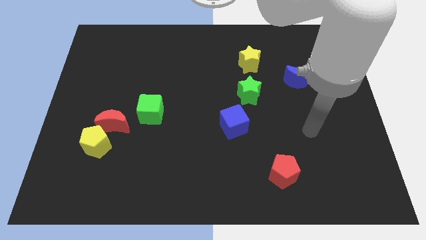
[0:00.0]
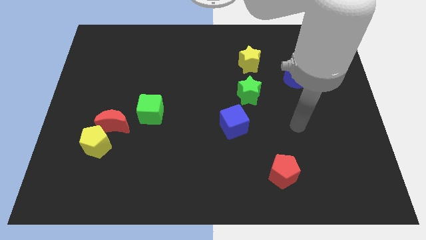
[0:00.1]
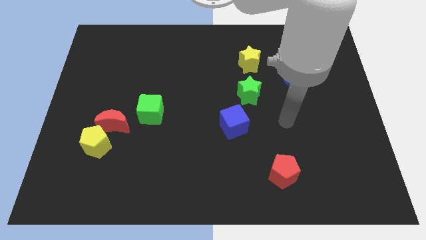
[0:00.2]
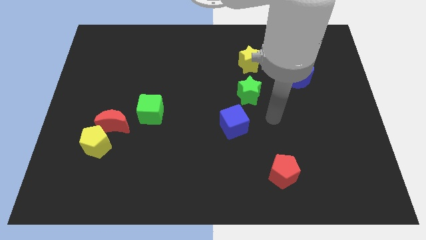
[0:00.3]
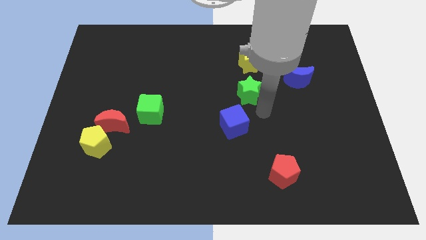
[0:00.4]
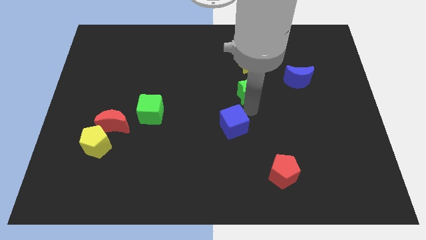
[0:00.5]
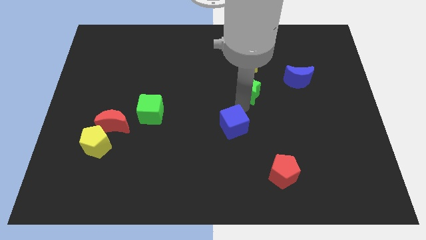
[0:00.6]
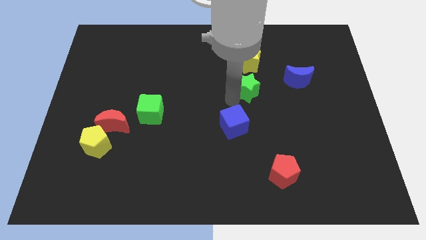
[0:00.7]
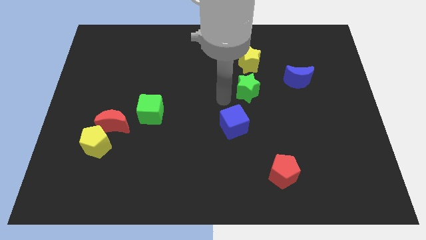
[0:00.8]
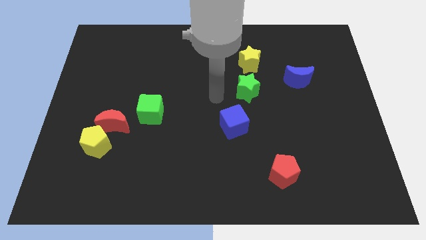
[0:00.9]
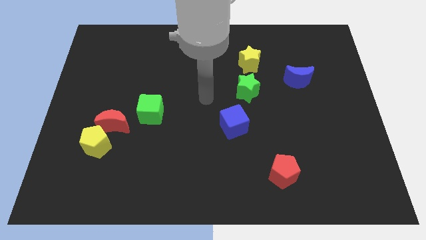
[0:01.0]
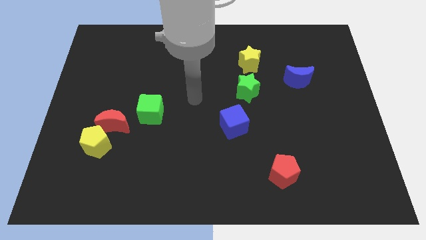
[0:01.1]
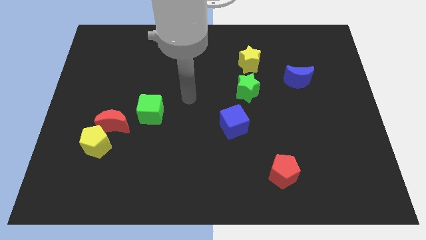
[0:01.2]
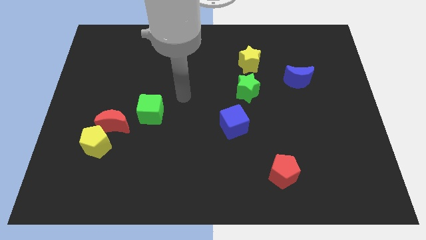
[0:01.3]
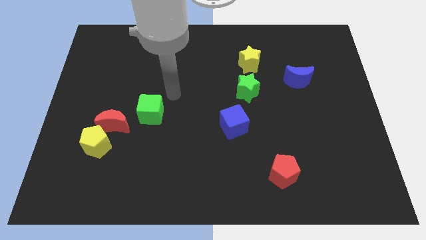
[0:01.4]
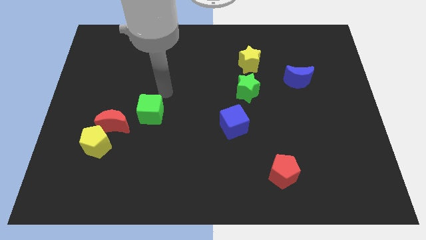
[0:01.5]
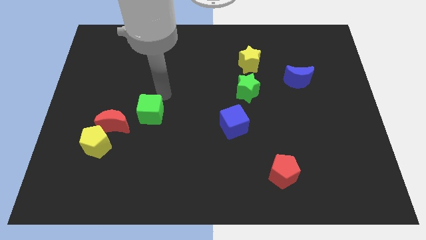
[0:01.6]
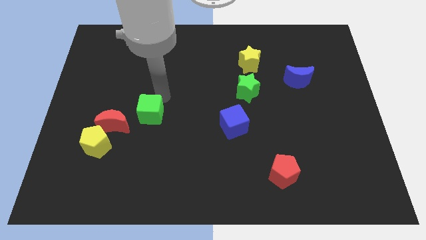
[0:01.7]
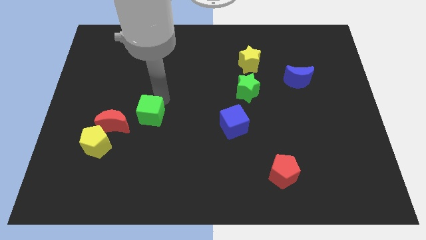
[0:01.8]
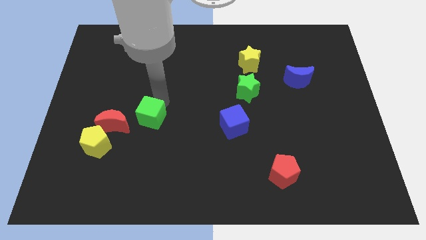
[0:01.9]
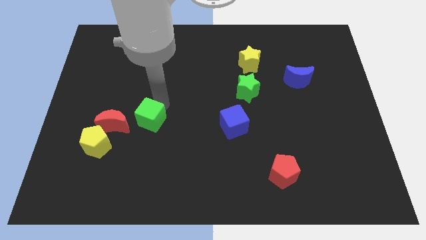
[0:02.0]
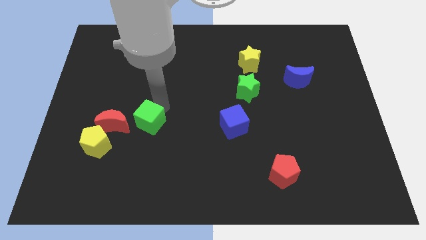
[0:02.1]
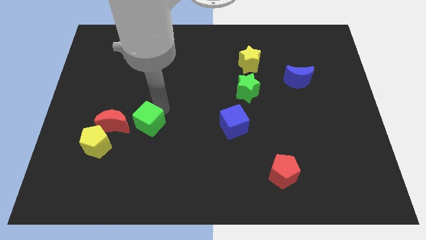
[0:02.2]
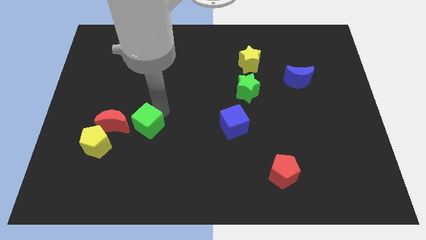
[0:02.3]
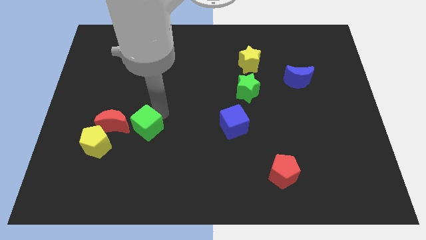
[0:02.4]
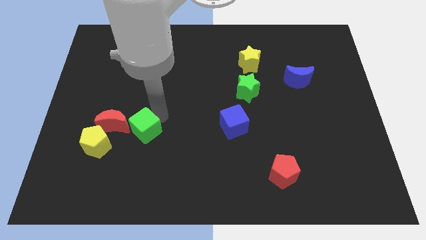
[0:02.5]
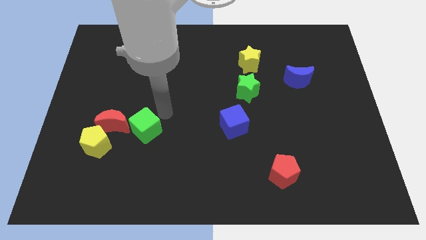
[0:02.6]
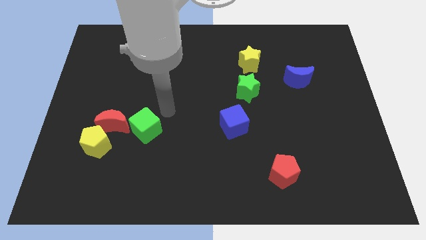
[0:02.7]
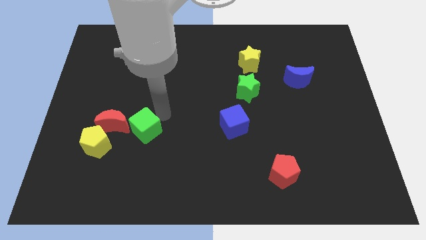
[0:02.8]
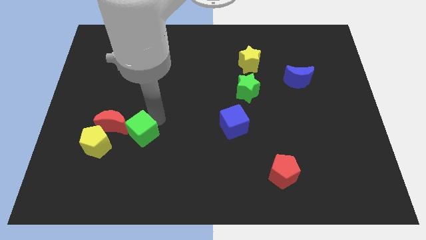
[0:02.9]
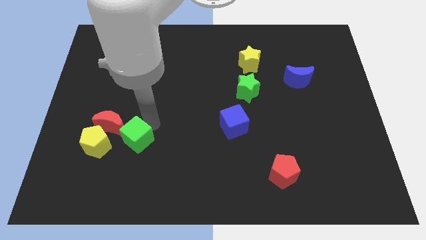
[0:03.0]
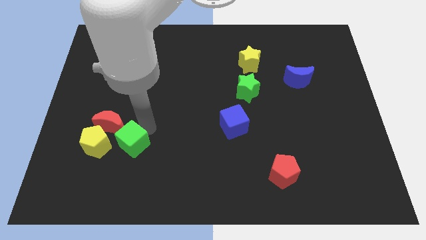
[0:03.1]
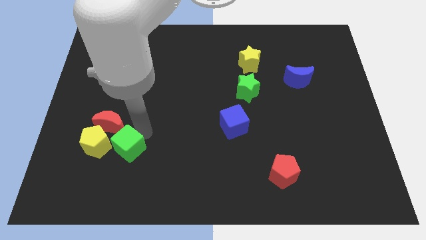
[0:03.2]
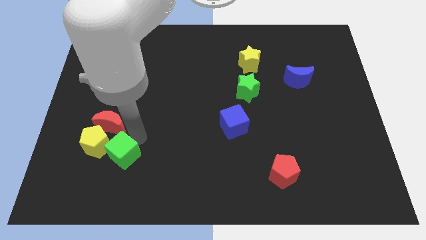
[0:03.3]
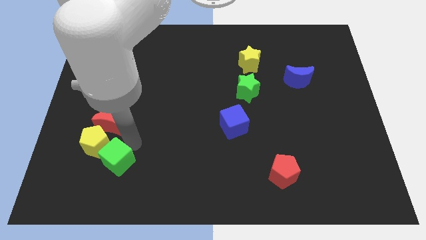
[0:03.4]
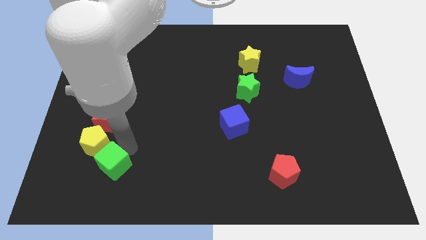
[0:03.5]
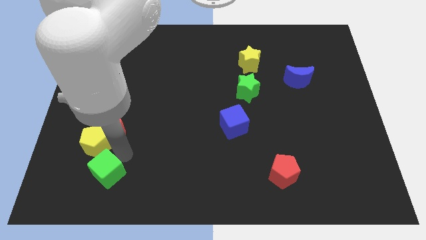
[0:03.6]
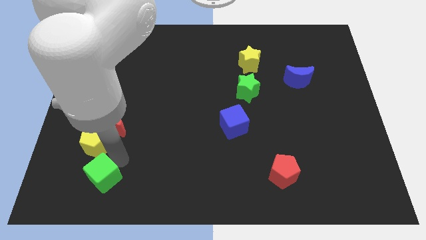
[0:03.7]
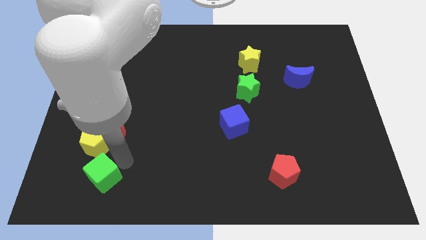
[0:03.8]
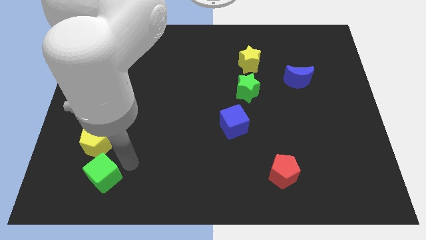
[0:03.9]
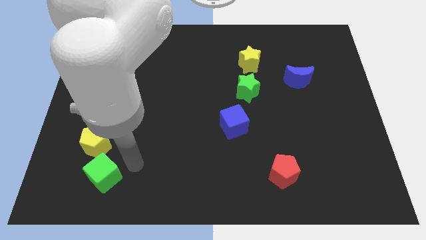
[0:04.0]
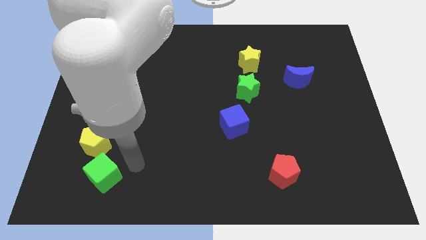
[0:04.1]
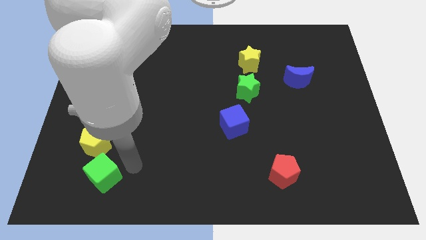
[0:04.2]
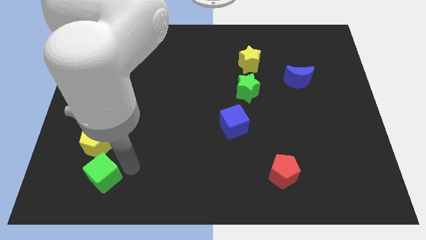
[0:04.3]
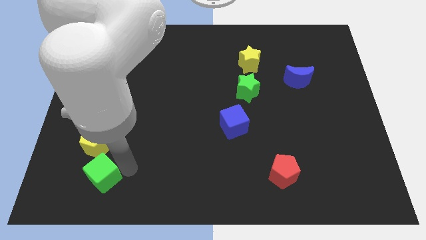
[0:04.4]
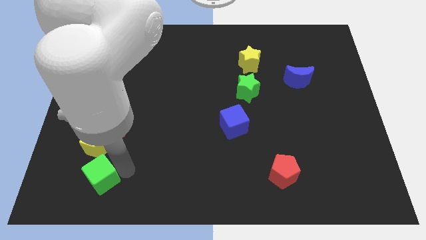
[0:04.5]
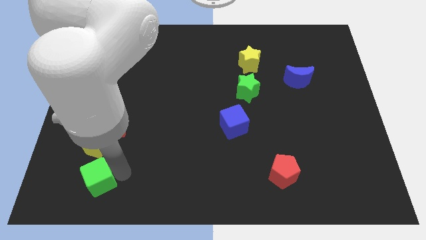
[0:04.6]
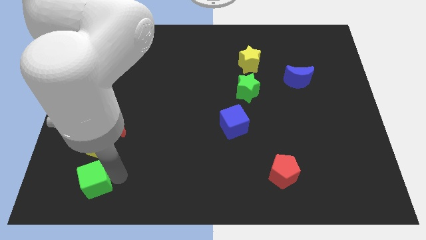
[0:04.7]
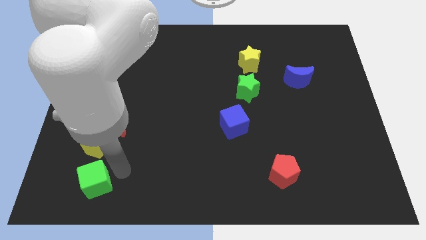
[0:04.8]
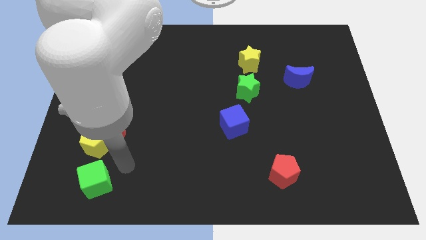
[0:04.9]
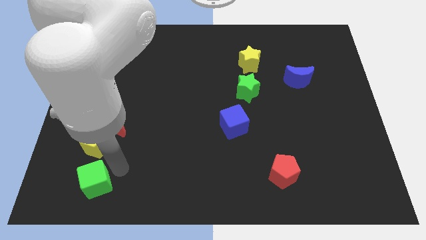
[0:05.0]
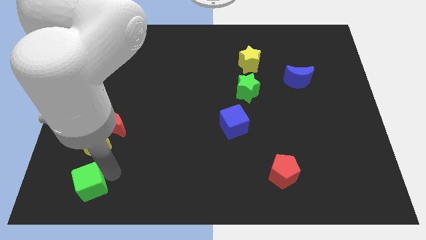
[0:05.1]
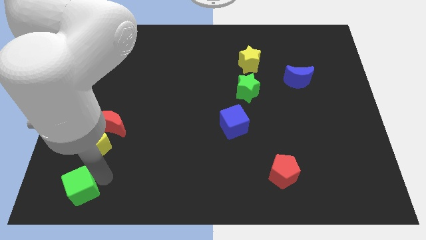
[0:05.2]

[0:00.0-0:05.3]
push the green cube to the bottom left
